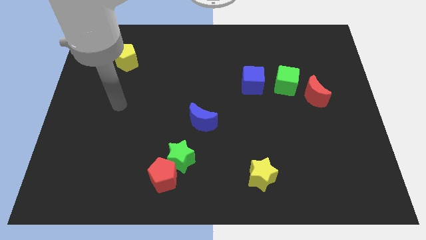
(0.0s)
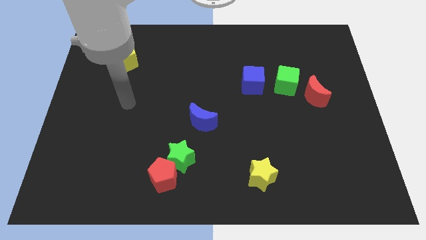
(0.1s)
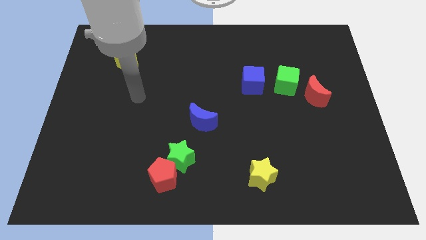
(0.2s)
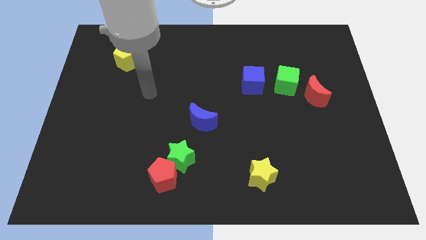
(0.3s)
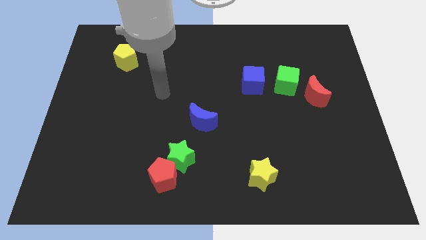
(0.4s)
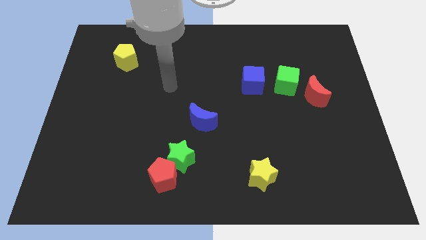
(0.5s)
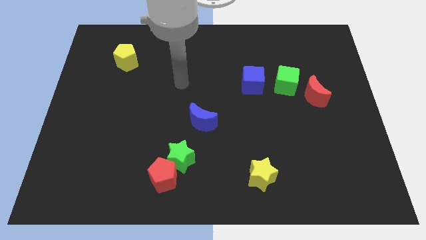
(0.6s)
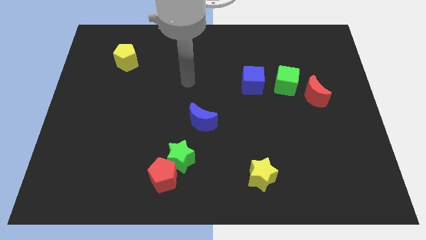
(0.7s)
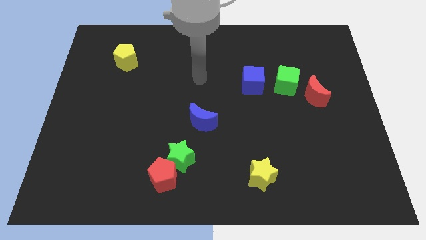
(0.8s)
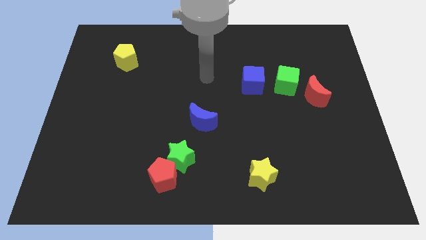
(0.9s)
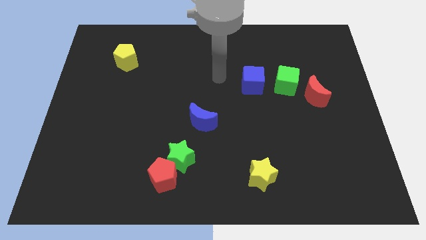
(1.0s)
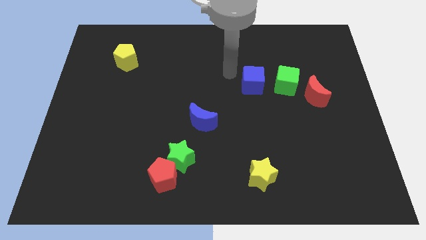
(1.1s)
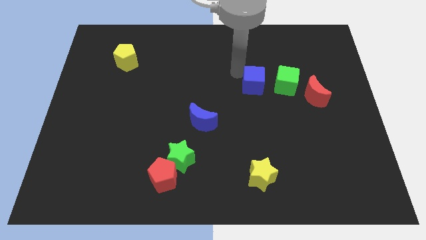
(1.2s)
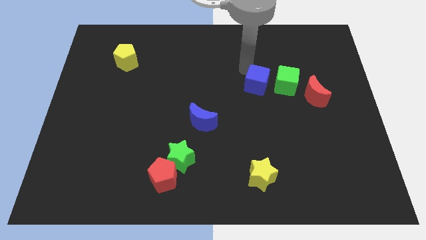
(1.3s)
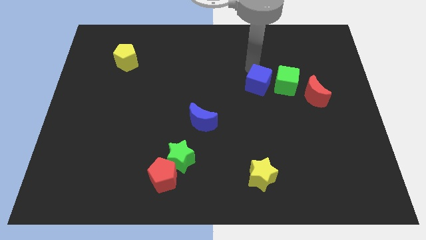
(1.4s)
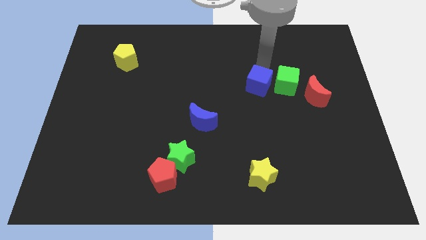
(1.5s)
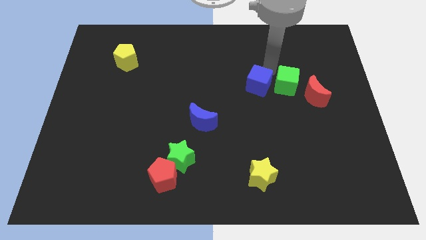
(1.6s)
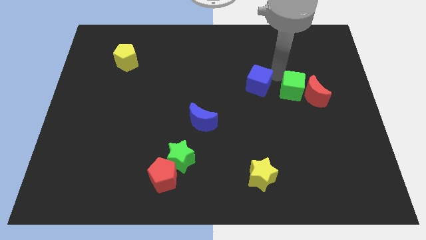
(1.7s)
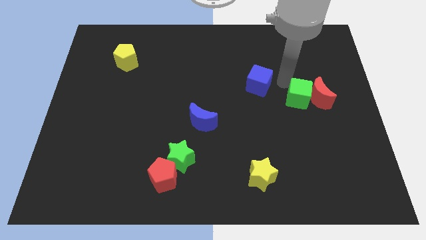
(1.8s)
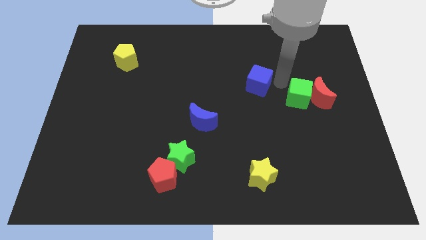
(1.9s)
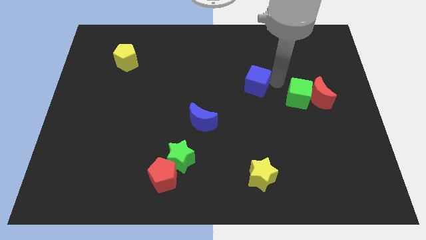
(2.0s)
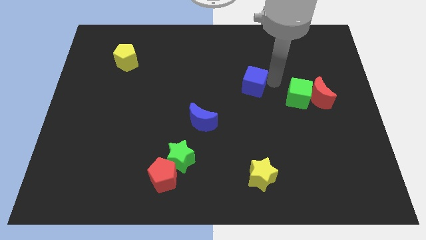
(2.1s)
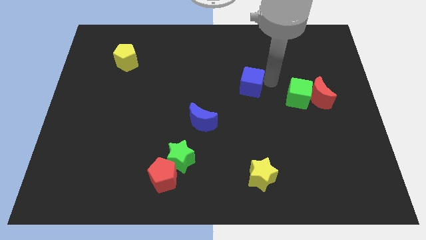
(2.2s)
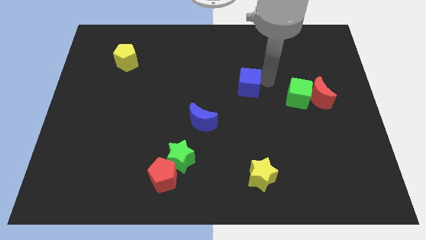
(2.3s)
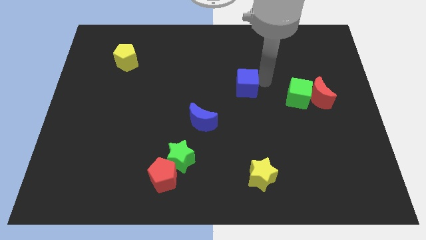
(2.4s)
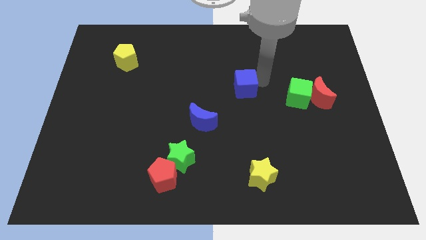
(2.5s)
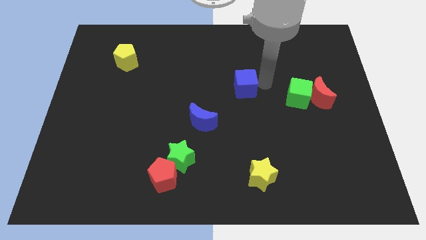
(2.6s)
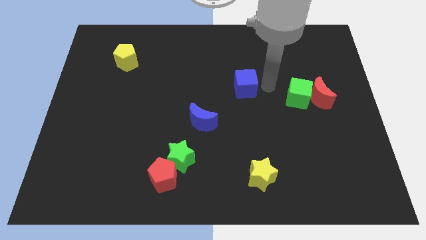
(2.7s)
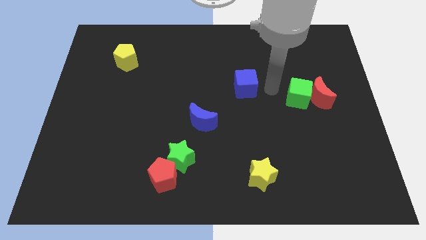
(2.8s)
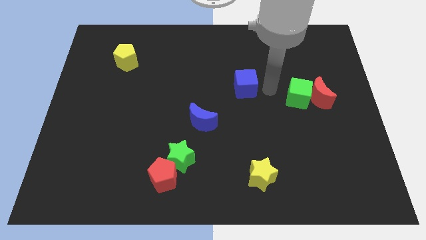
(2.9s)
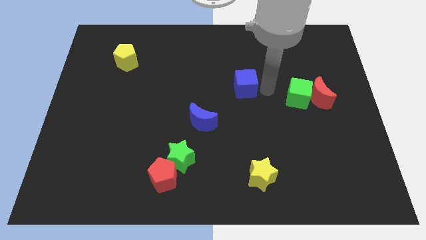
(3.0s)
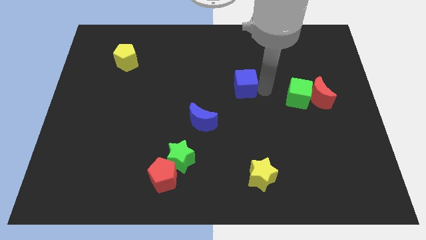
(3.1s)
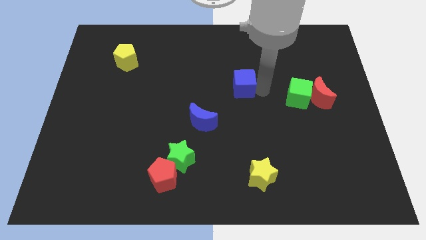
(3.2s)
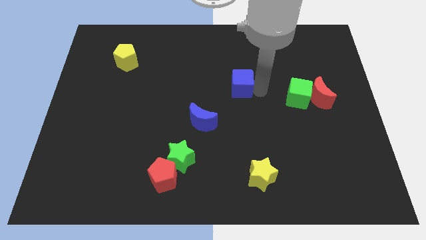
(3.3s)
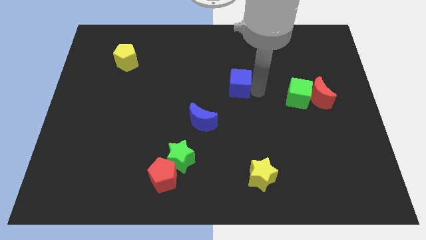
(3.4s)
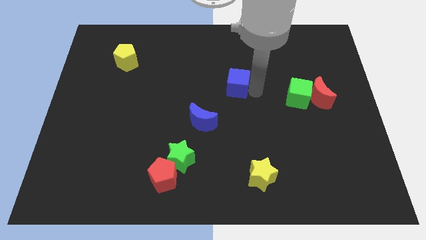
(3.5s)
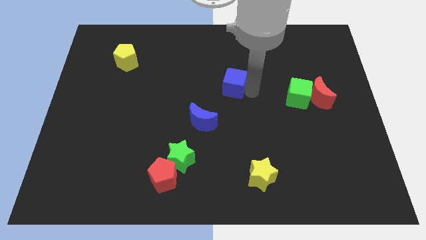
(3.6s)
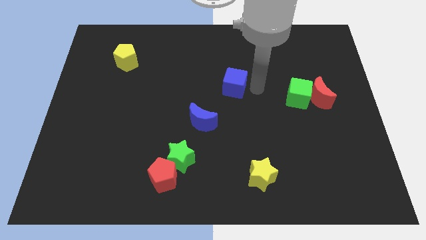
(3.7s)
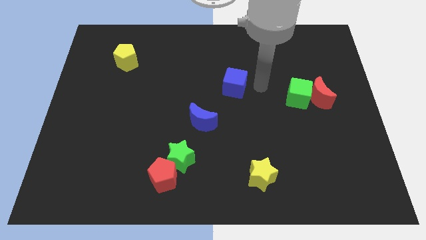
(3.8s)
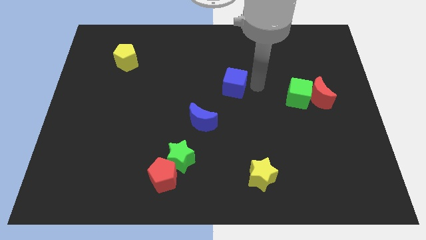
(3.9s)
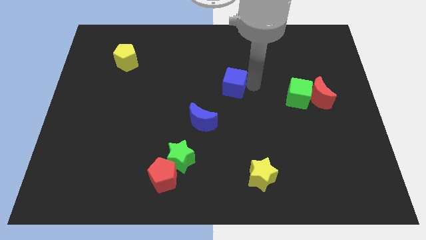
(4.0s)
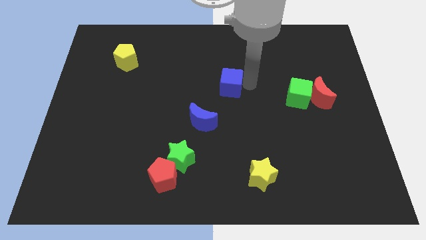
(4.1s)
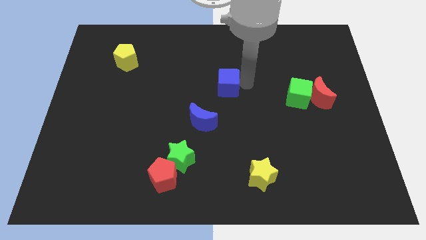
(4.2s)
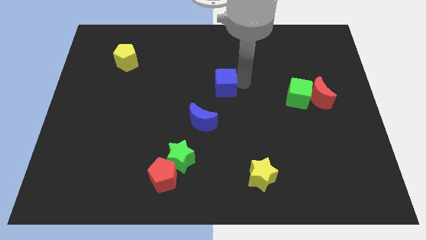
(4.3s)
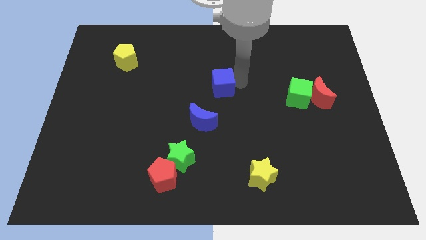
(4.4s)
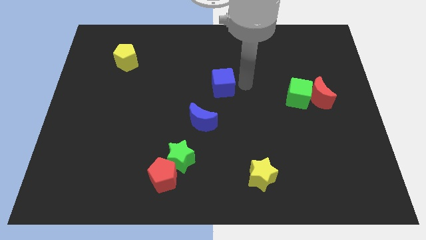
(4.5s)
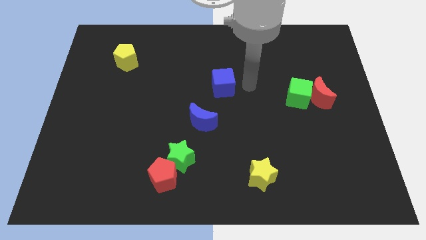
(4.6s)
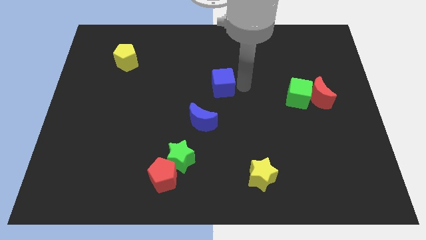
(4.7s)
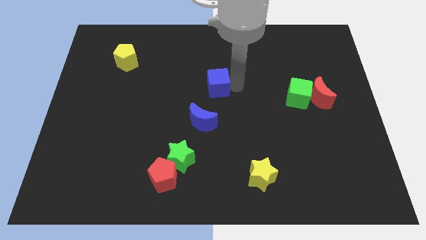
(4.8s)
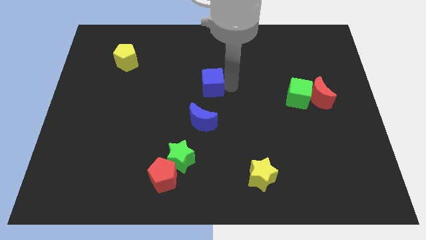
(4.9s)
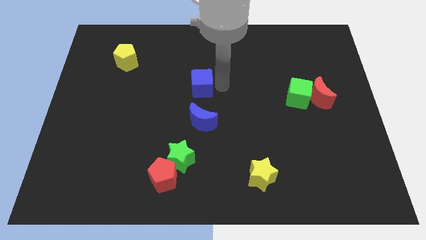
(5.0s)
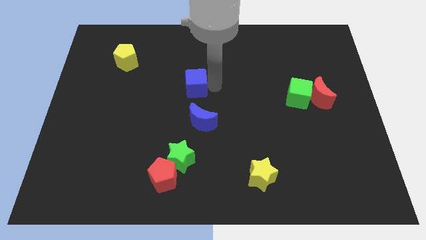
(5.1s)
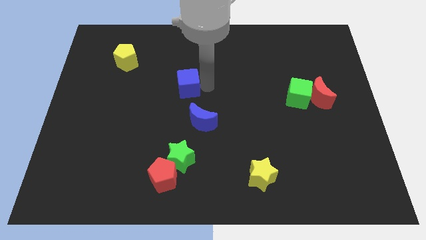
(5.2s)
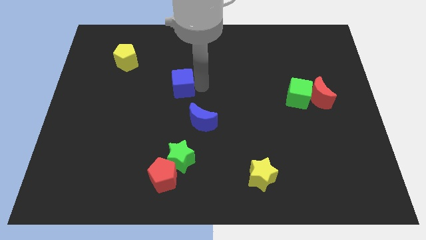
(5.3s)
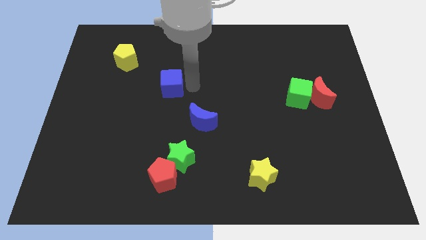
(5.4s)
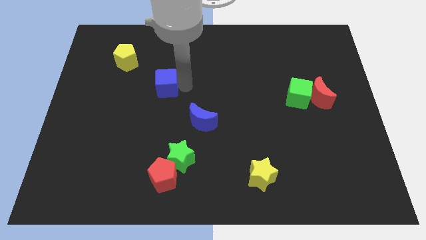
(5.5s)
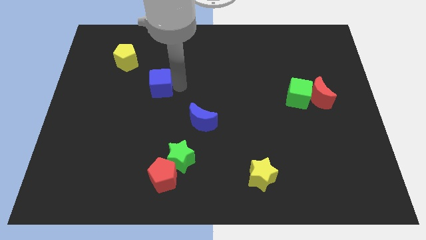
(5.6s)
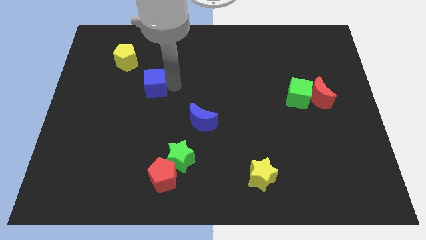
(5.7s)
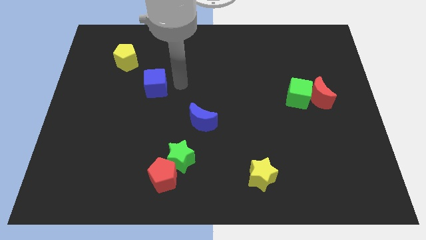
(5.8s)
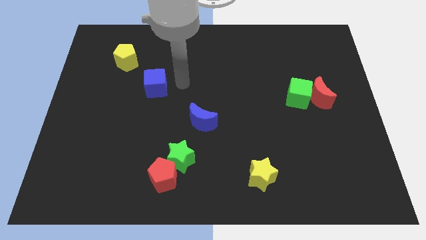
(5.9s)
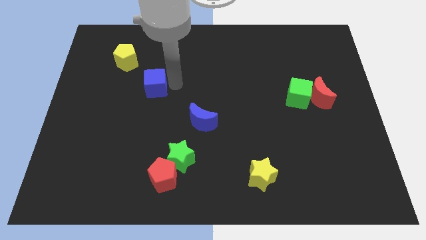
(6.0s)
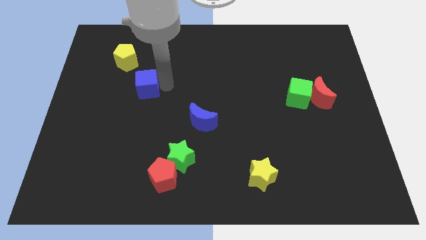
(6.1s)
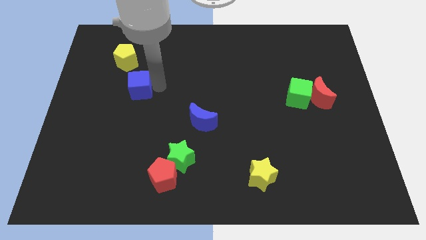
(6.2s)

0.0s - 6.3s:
slide the blue cube to the bottom of the yellow pentagon

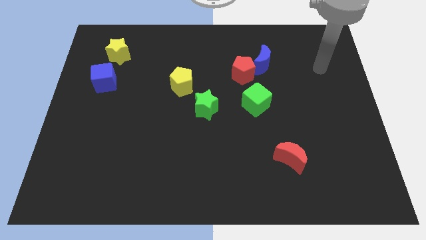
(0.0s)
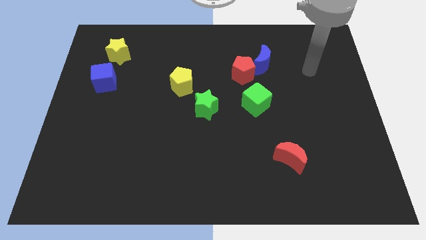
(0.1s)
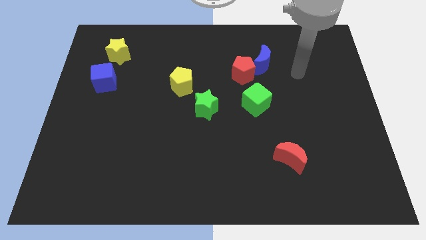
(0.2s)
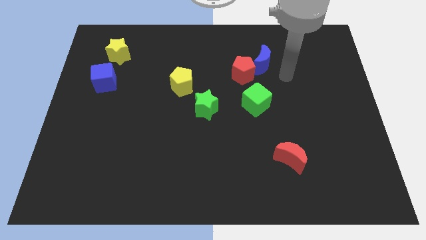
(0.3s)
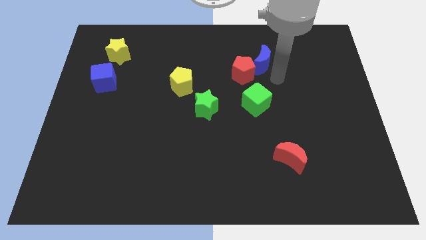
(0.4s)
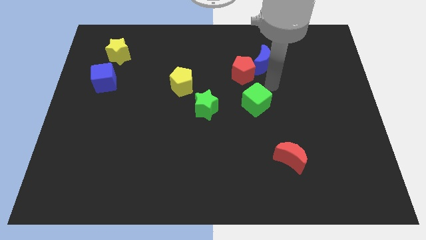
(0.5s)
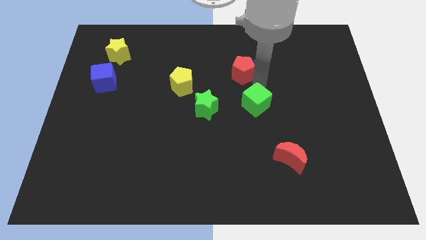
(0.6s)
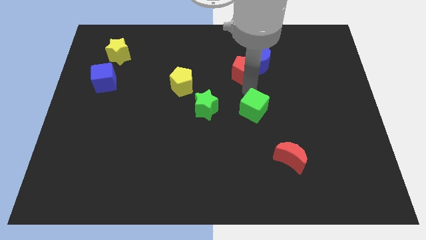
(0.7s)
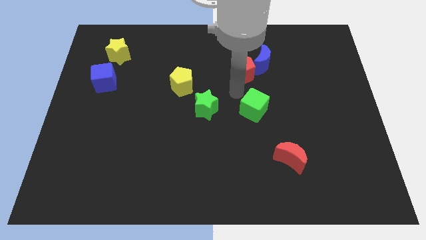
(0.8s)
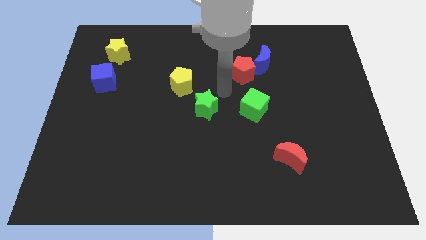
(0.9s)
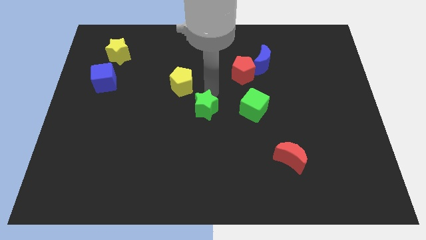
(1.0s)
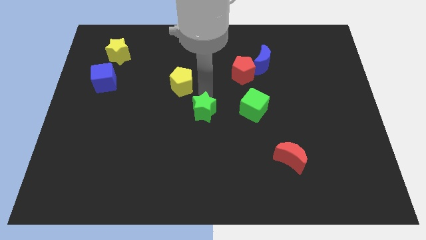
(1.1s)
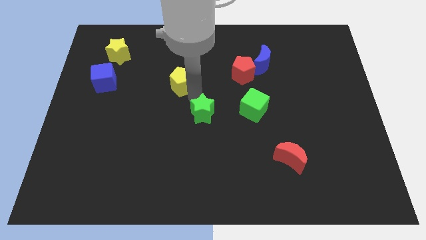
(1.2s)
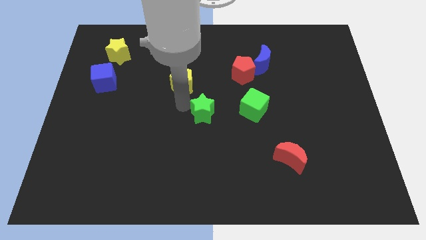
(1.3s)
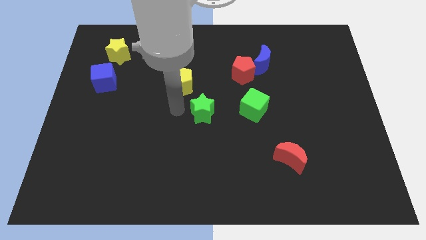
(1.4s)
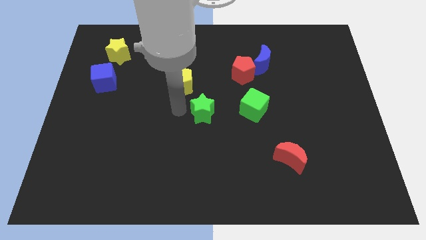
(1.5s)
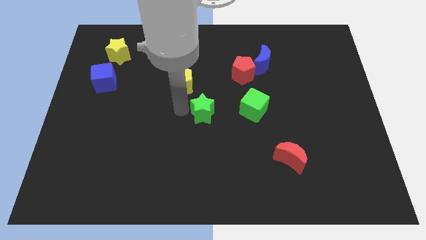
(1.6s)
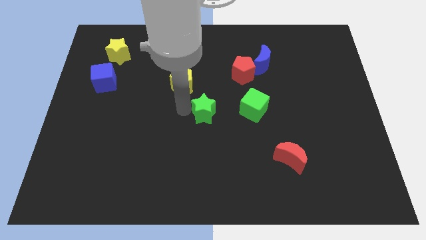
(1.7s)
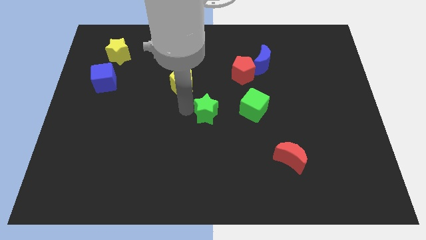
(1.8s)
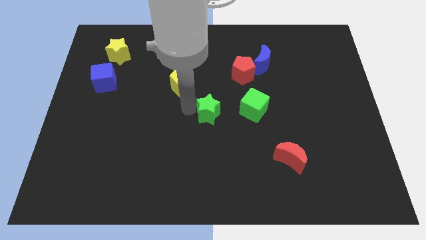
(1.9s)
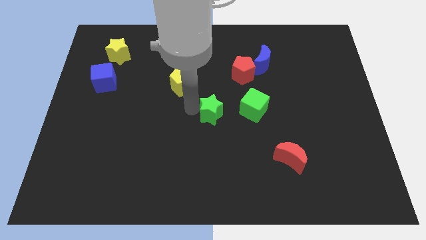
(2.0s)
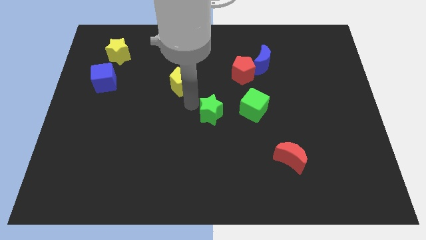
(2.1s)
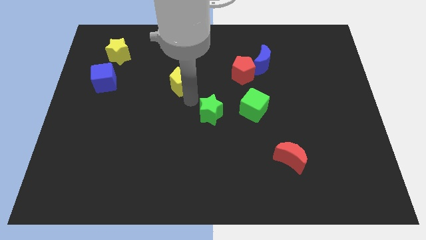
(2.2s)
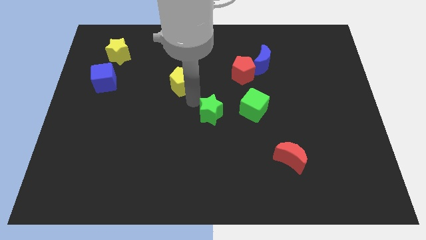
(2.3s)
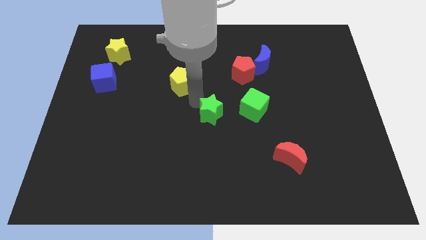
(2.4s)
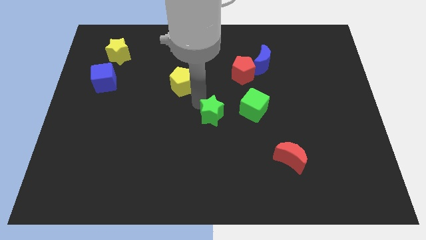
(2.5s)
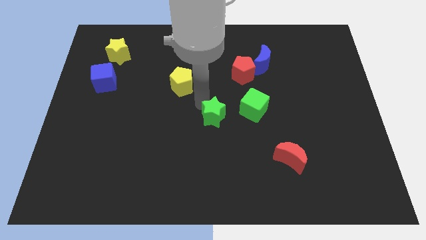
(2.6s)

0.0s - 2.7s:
move the green star to the bottom left of the green cube
